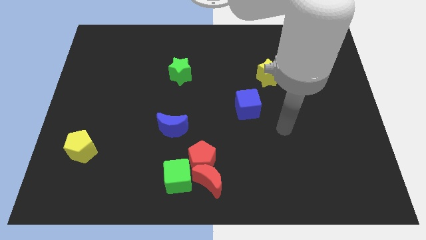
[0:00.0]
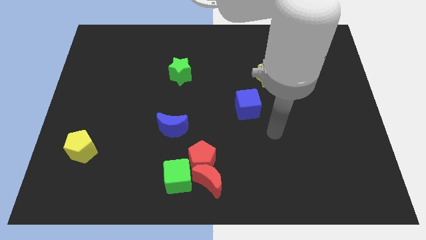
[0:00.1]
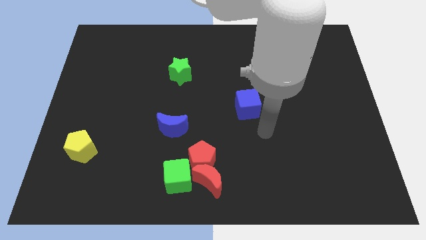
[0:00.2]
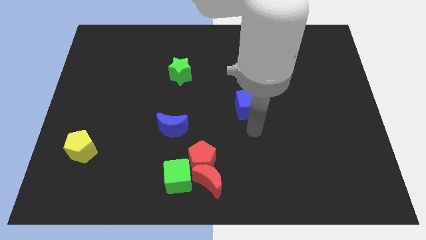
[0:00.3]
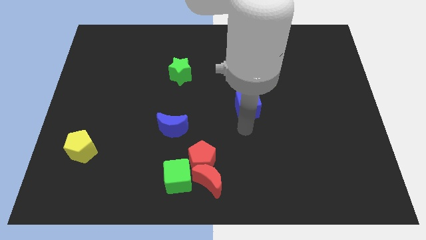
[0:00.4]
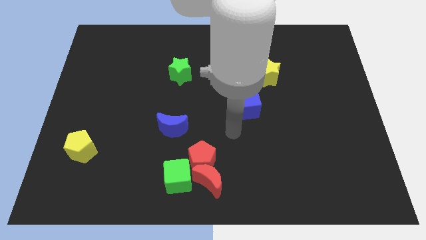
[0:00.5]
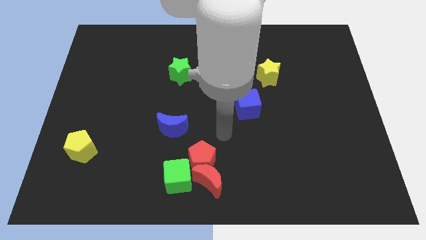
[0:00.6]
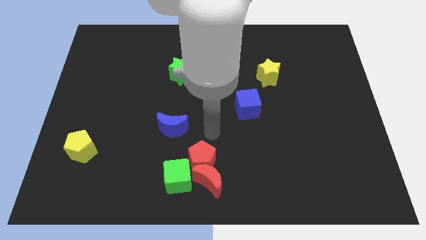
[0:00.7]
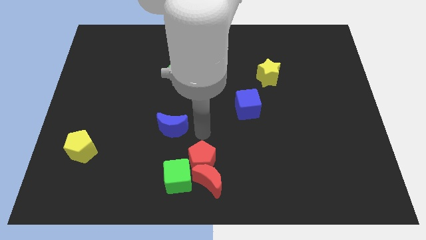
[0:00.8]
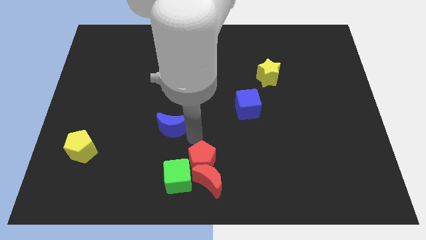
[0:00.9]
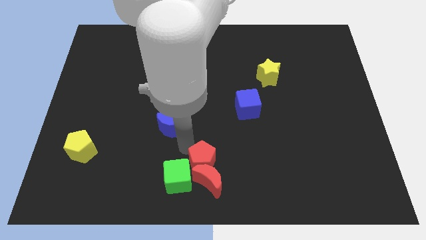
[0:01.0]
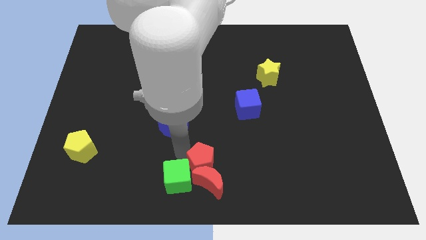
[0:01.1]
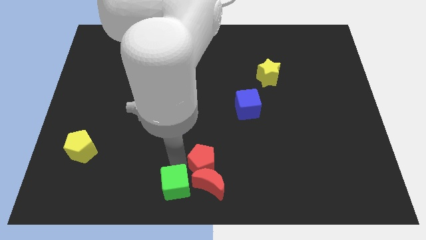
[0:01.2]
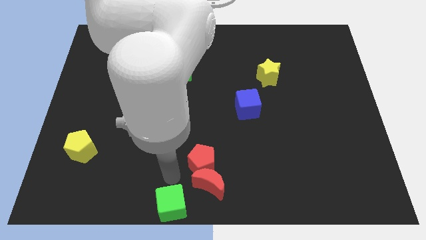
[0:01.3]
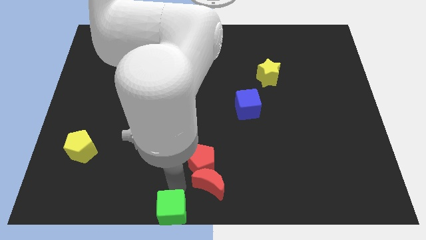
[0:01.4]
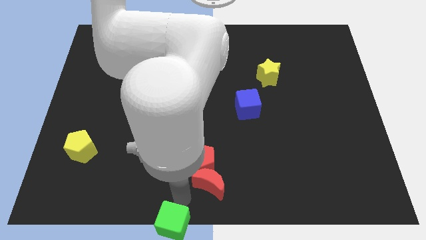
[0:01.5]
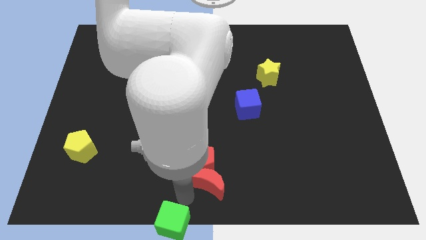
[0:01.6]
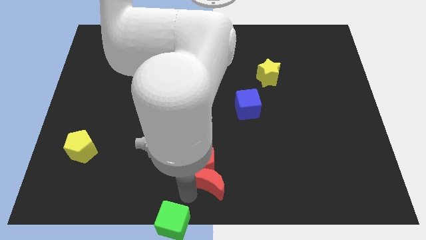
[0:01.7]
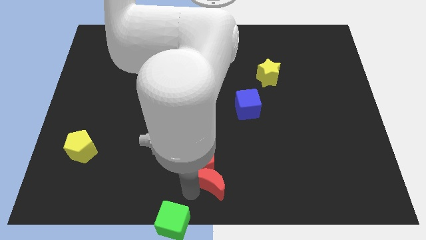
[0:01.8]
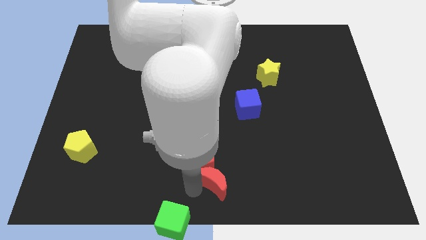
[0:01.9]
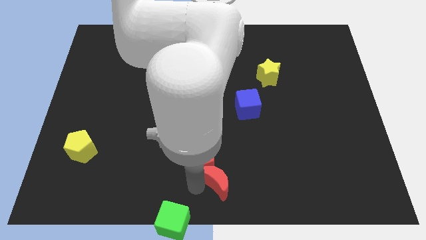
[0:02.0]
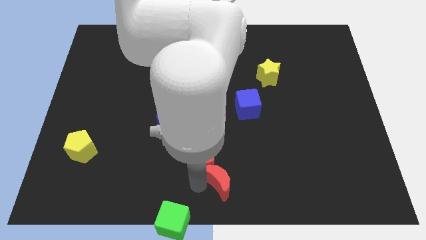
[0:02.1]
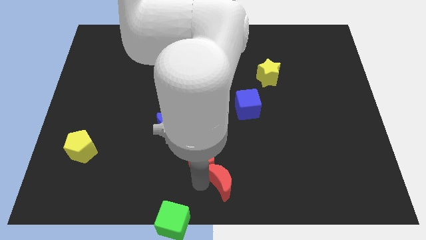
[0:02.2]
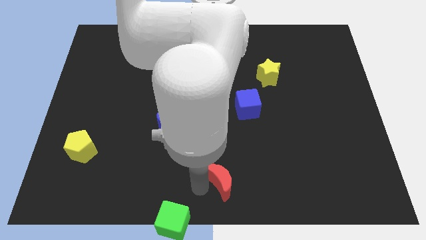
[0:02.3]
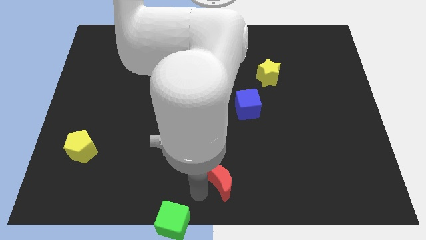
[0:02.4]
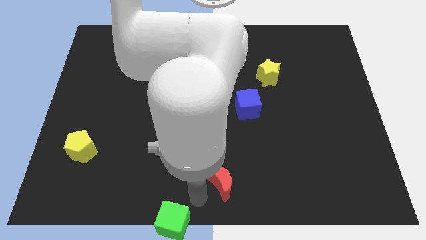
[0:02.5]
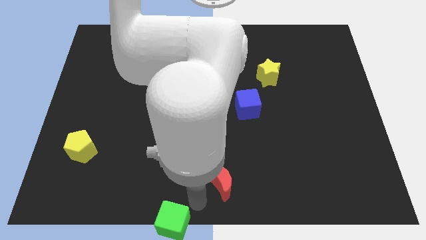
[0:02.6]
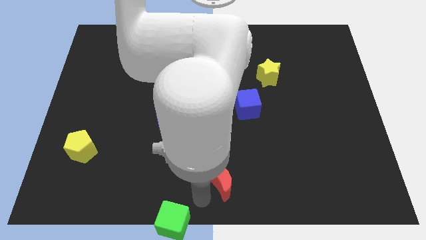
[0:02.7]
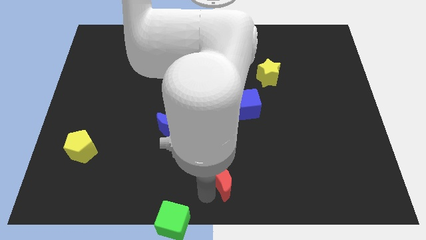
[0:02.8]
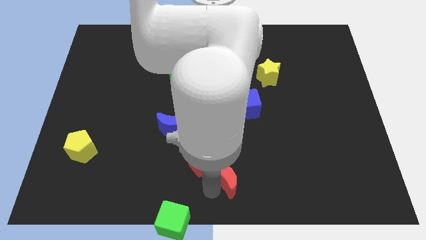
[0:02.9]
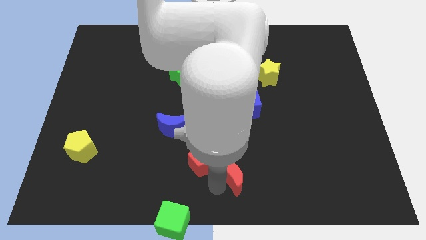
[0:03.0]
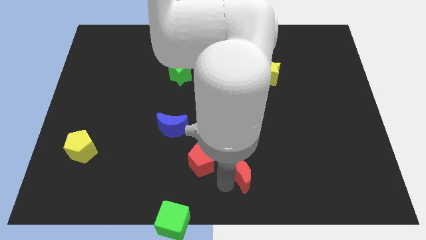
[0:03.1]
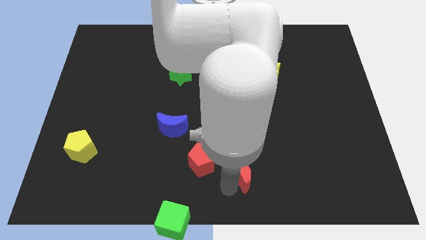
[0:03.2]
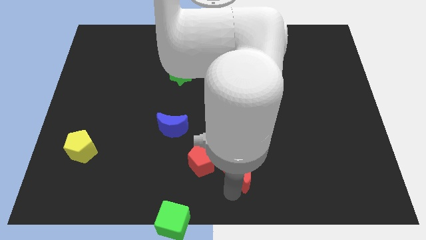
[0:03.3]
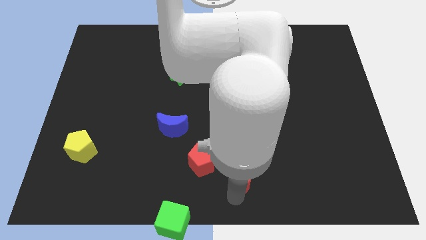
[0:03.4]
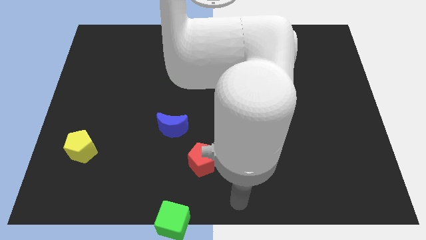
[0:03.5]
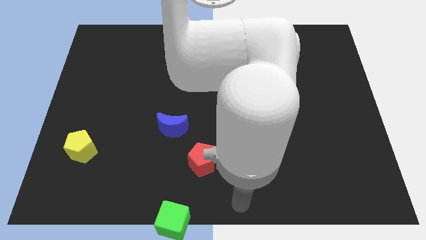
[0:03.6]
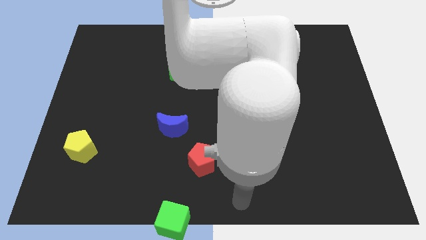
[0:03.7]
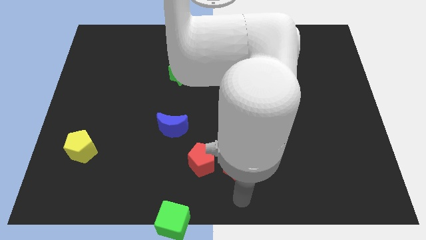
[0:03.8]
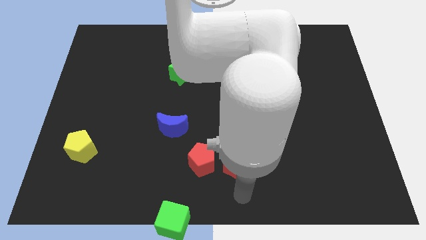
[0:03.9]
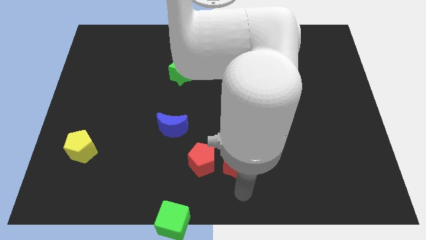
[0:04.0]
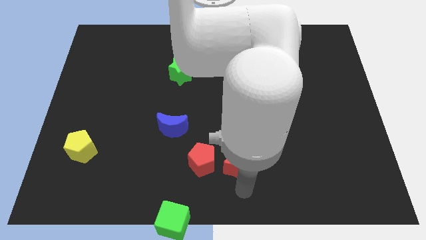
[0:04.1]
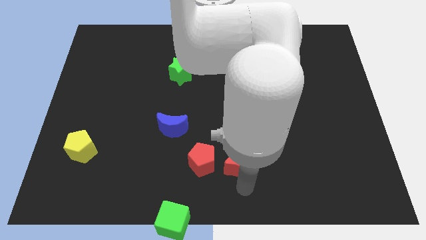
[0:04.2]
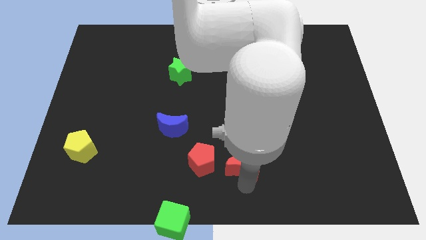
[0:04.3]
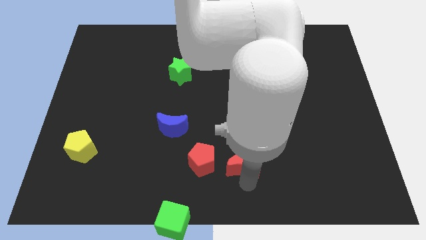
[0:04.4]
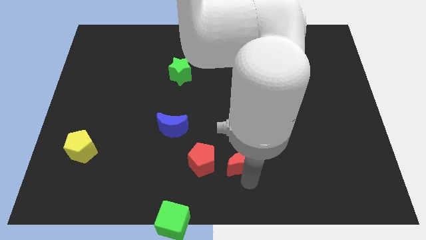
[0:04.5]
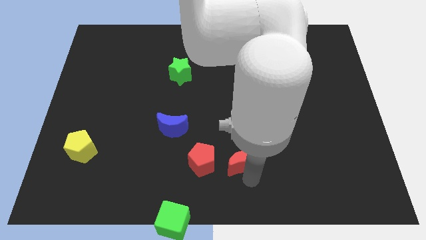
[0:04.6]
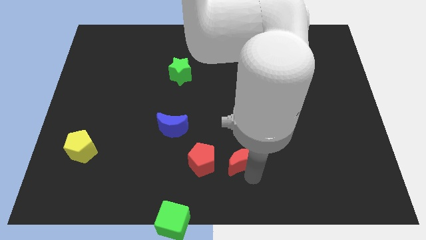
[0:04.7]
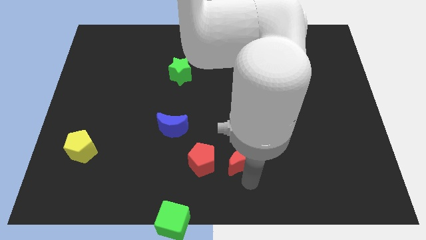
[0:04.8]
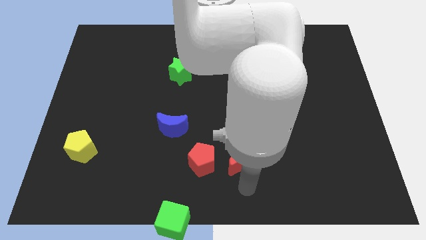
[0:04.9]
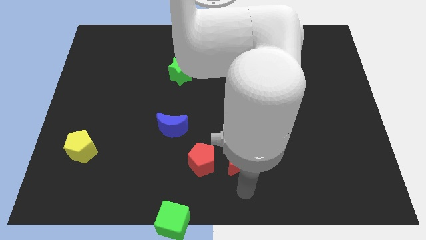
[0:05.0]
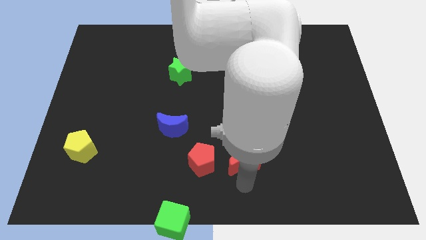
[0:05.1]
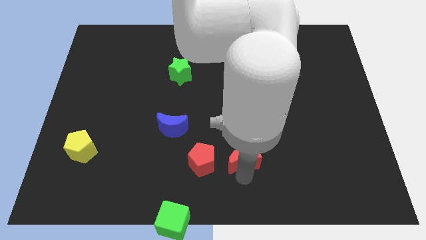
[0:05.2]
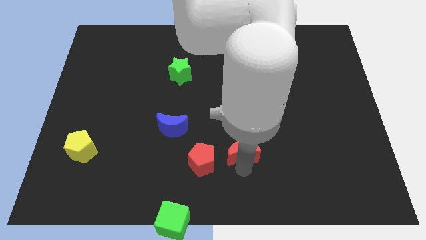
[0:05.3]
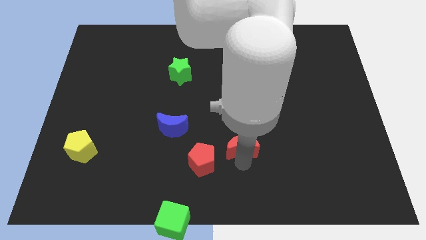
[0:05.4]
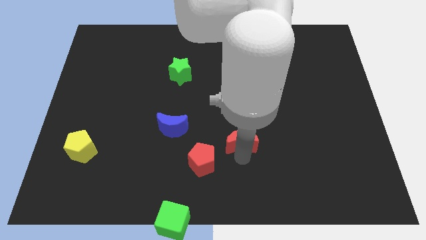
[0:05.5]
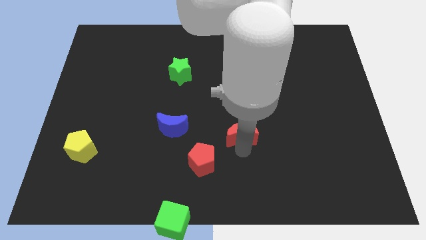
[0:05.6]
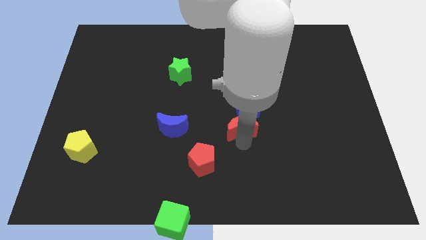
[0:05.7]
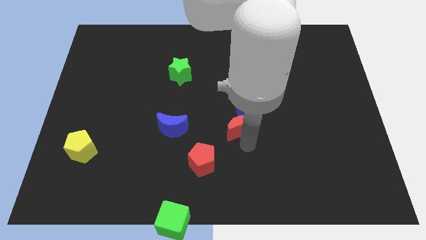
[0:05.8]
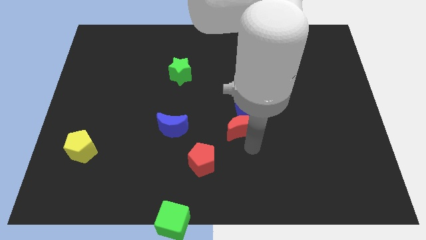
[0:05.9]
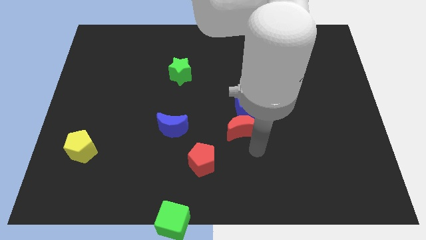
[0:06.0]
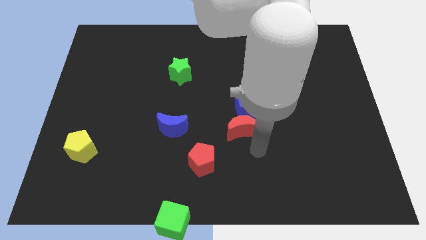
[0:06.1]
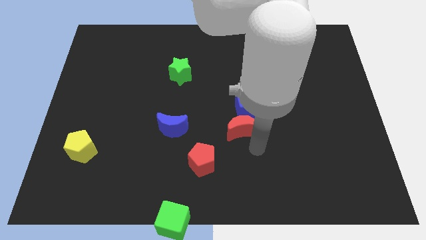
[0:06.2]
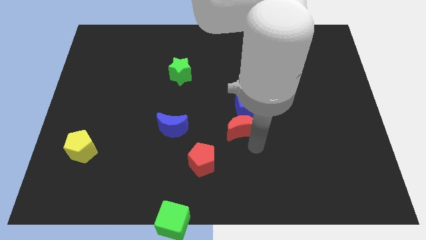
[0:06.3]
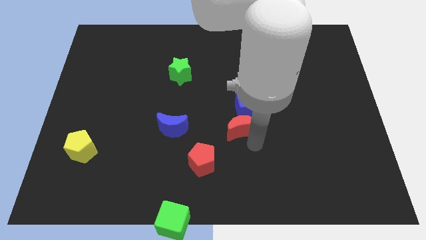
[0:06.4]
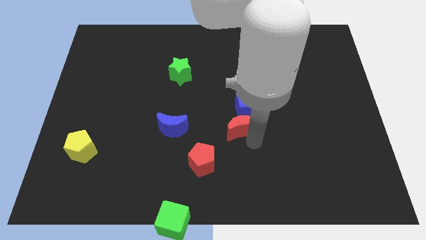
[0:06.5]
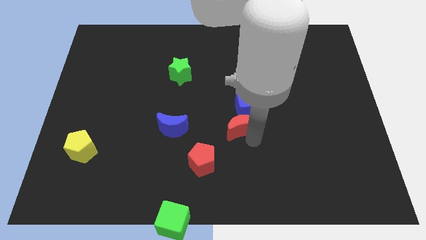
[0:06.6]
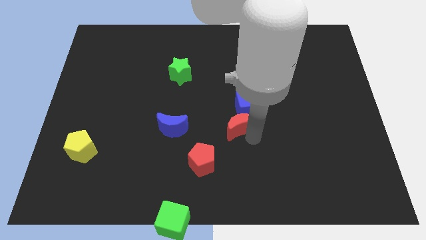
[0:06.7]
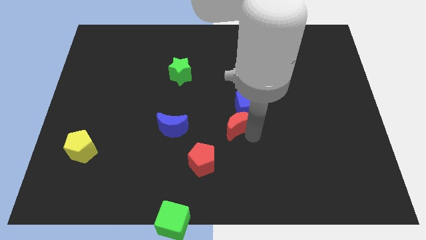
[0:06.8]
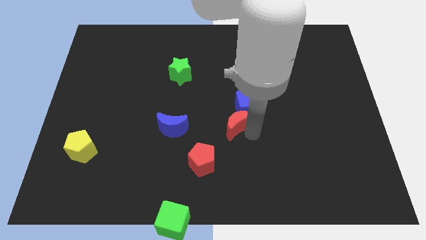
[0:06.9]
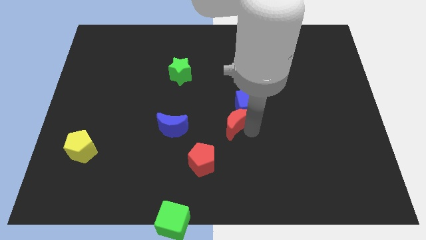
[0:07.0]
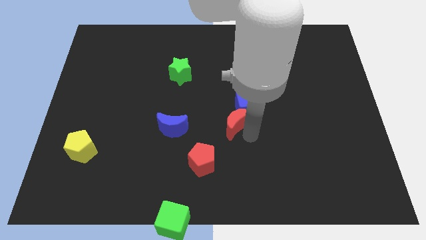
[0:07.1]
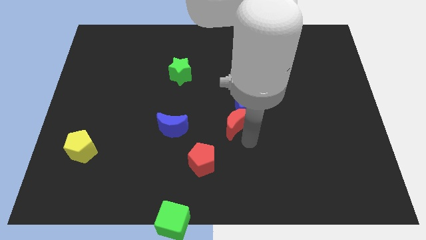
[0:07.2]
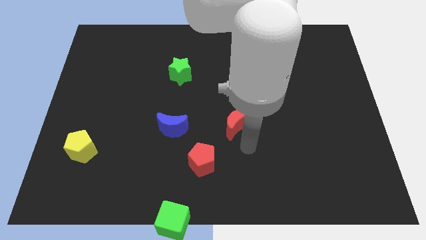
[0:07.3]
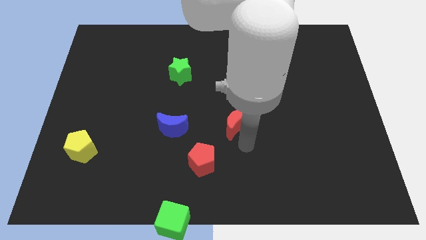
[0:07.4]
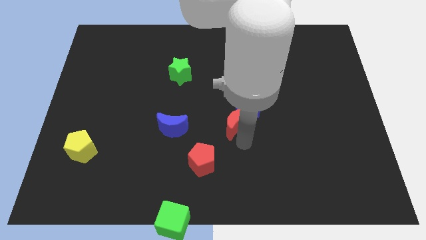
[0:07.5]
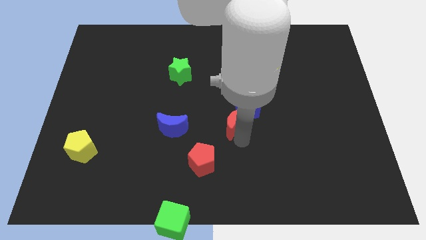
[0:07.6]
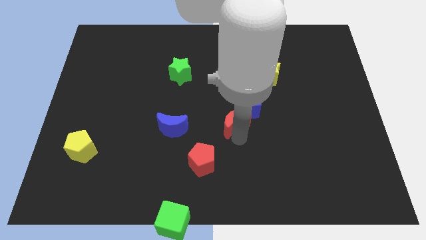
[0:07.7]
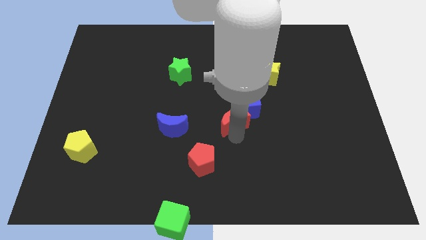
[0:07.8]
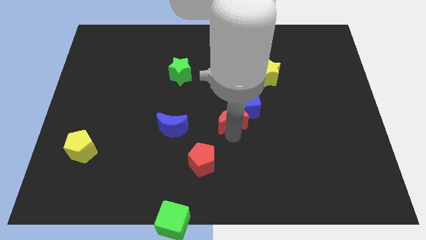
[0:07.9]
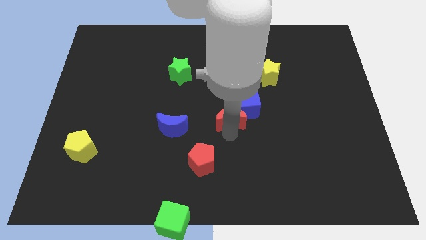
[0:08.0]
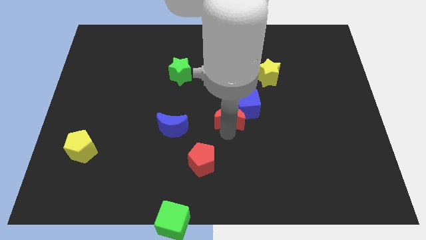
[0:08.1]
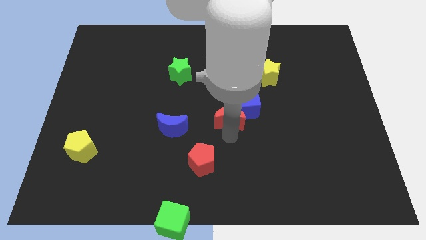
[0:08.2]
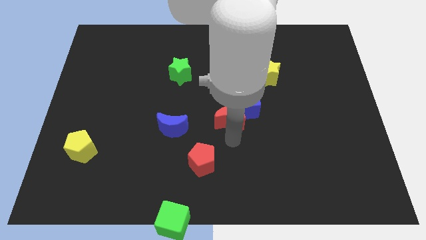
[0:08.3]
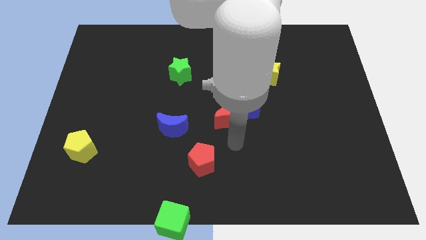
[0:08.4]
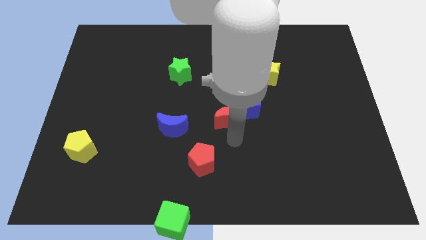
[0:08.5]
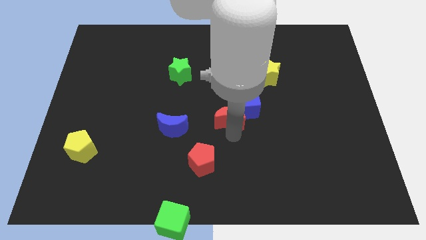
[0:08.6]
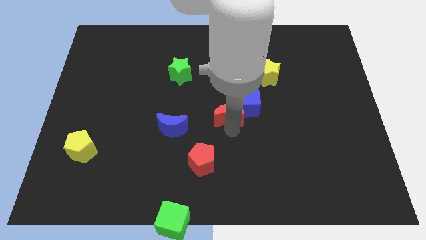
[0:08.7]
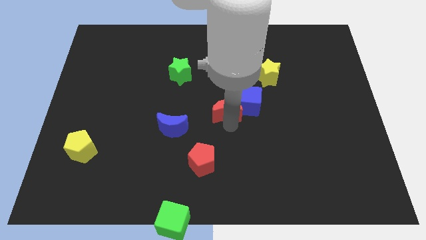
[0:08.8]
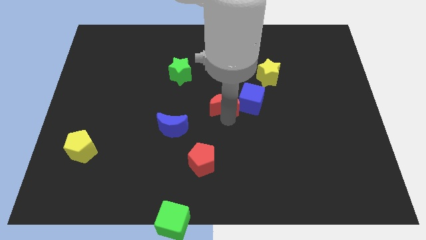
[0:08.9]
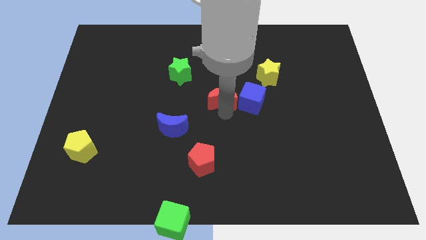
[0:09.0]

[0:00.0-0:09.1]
slide the red moon up
